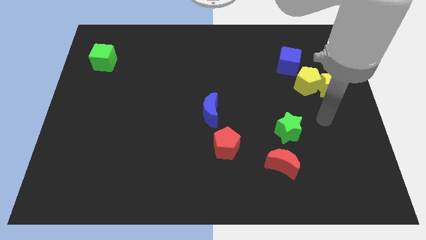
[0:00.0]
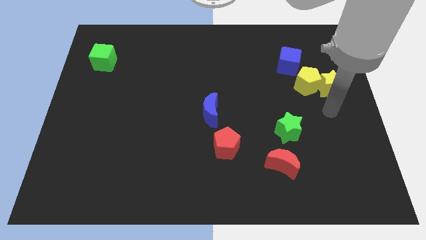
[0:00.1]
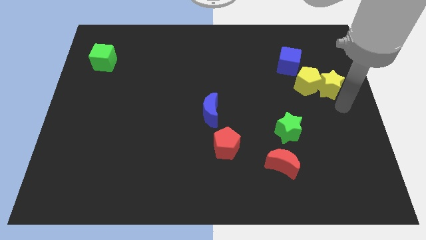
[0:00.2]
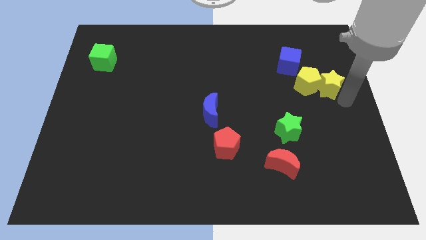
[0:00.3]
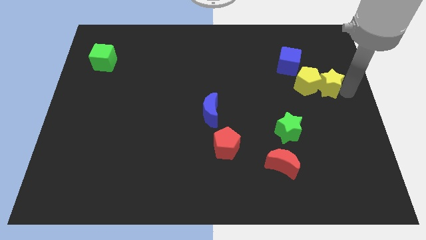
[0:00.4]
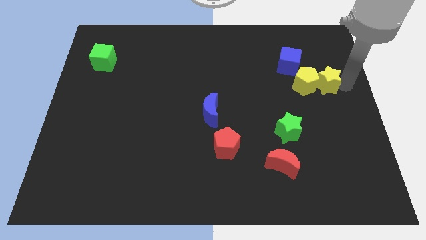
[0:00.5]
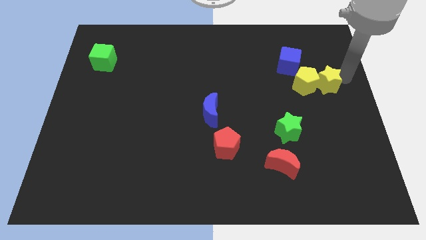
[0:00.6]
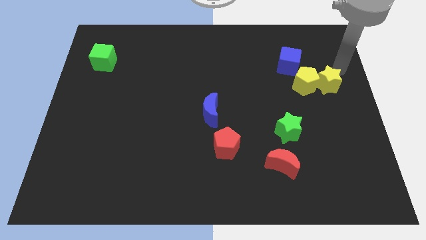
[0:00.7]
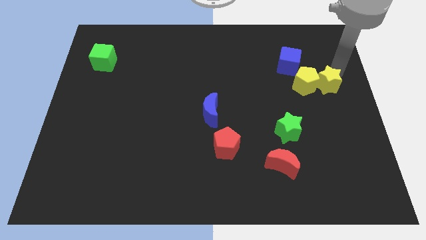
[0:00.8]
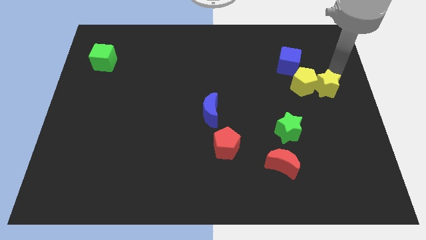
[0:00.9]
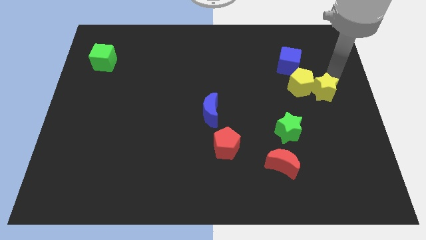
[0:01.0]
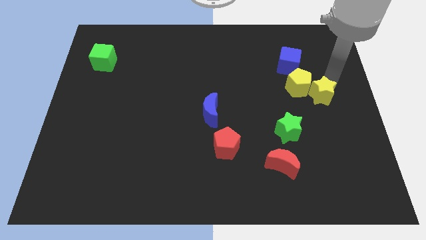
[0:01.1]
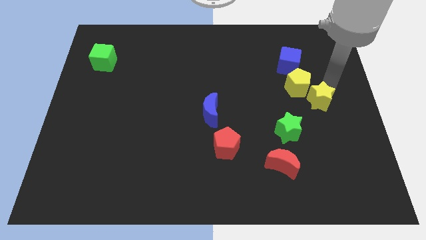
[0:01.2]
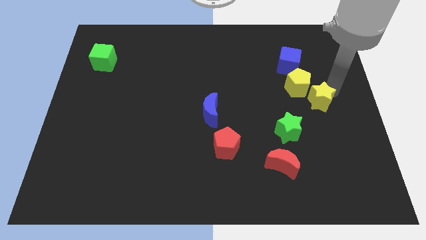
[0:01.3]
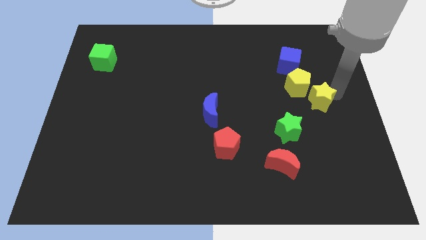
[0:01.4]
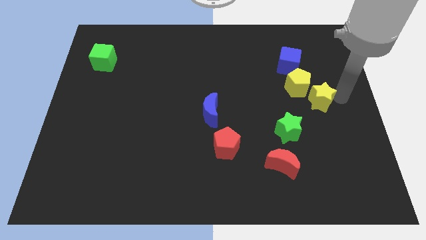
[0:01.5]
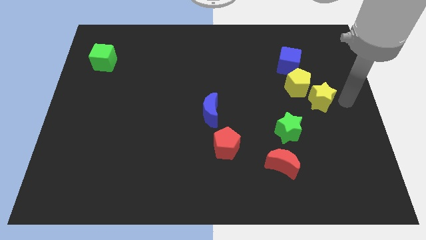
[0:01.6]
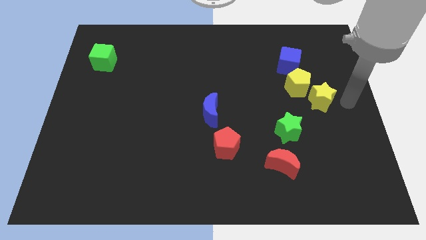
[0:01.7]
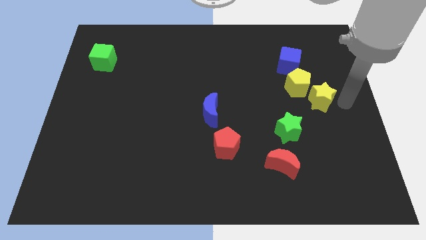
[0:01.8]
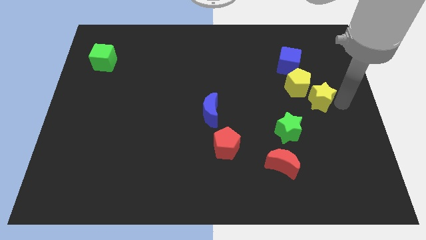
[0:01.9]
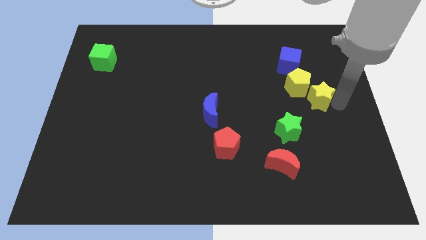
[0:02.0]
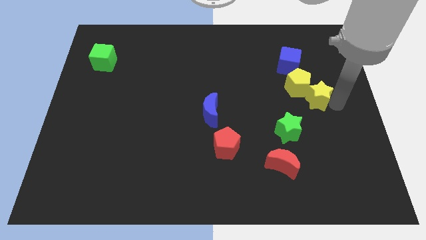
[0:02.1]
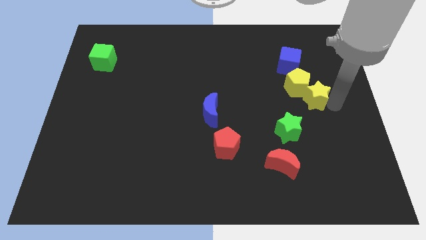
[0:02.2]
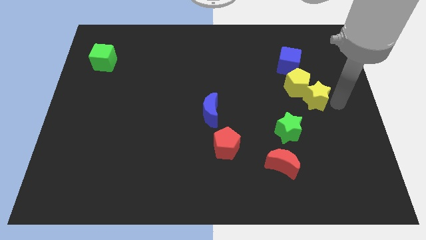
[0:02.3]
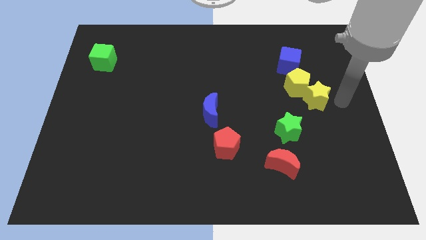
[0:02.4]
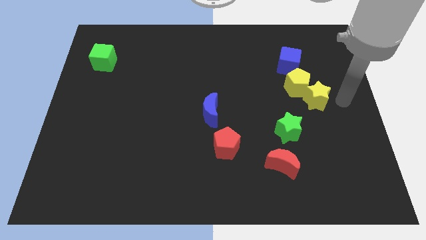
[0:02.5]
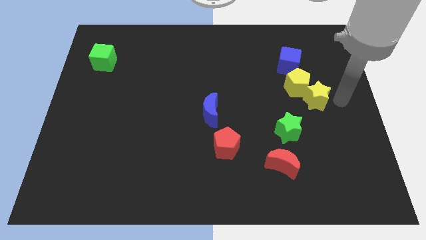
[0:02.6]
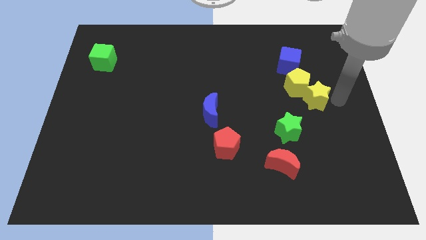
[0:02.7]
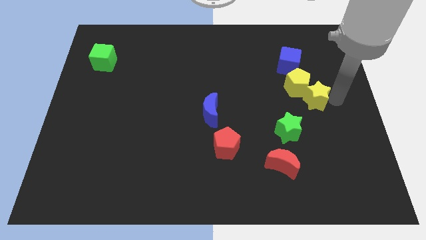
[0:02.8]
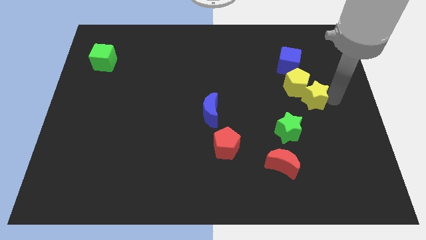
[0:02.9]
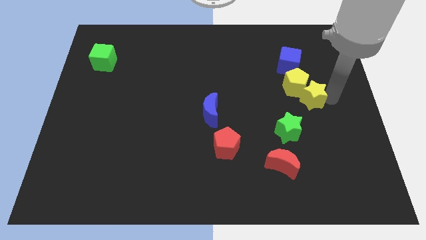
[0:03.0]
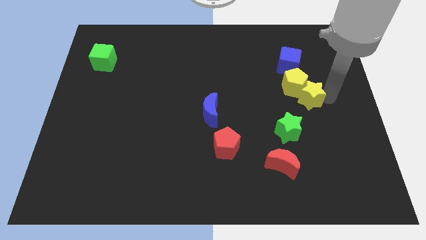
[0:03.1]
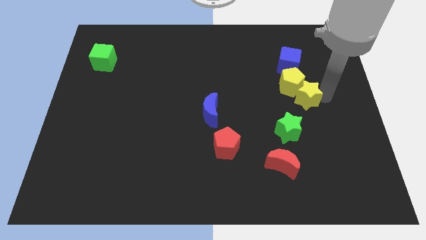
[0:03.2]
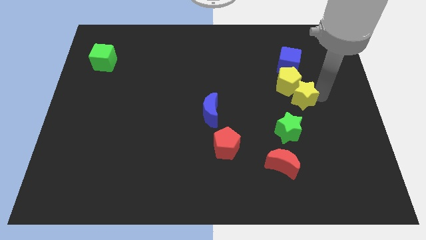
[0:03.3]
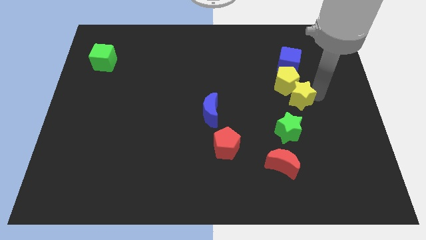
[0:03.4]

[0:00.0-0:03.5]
push the yellow star to the left somewhat

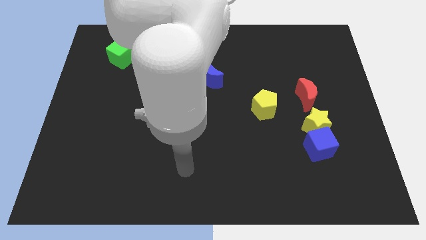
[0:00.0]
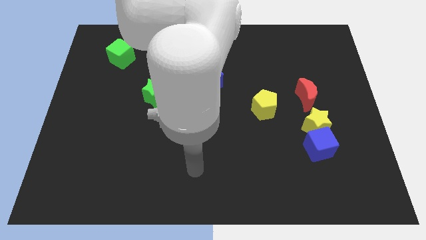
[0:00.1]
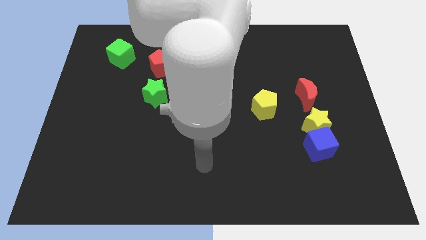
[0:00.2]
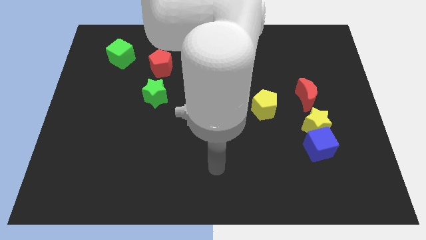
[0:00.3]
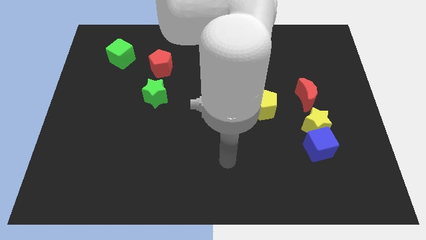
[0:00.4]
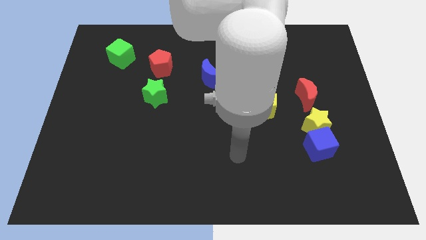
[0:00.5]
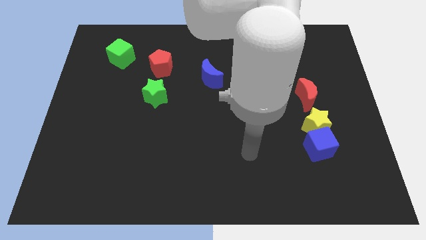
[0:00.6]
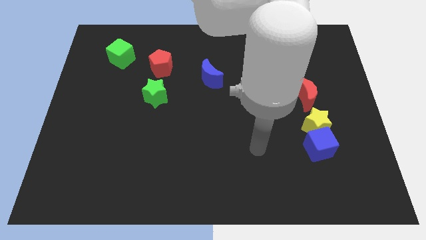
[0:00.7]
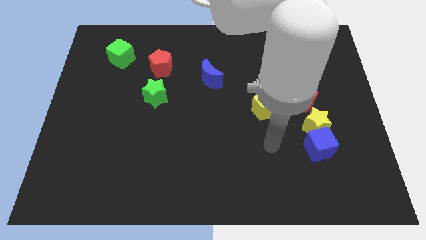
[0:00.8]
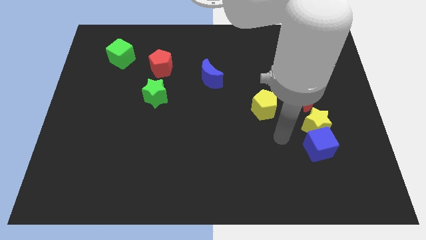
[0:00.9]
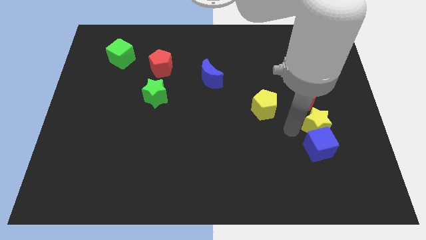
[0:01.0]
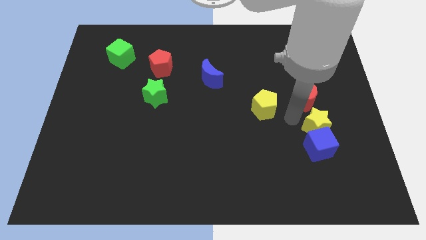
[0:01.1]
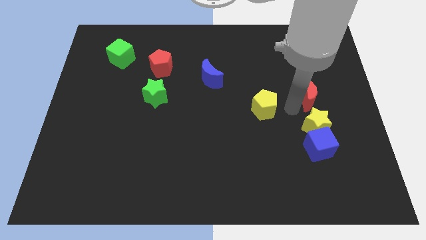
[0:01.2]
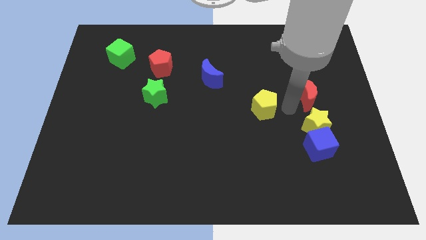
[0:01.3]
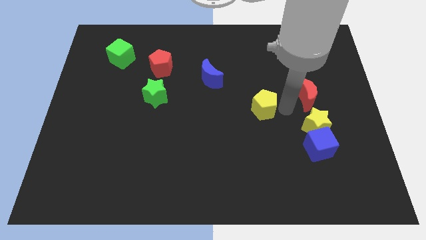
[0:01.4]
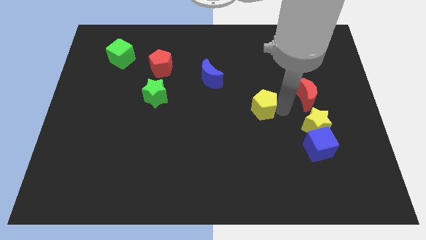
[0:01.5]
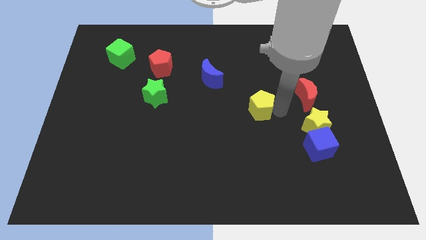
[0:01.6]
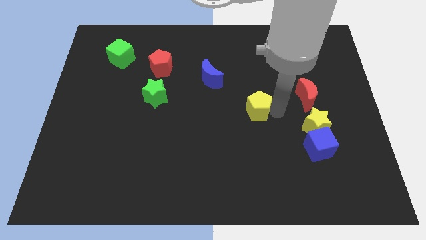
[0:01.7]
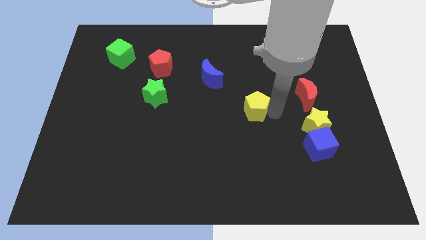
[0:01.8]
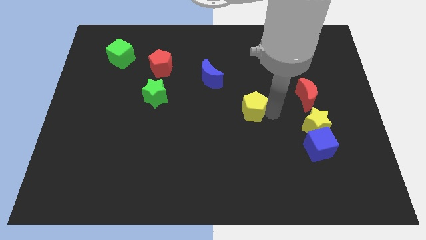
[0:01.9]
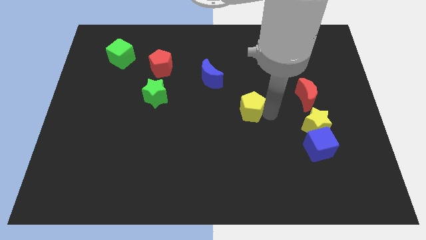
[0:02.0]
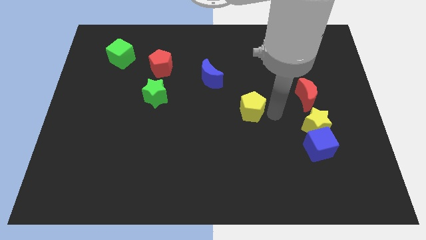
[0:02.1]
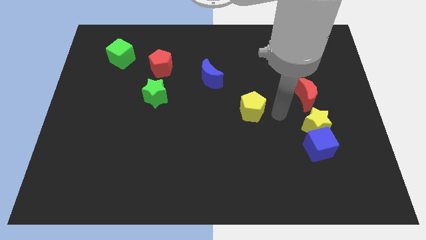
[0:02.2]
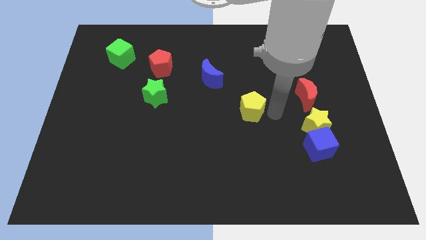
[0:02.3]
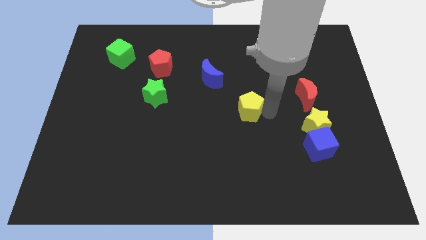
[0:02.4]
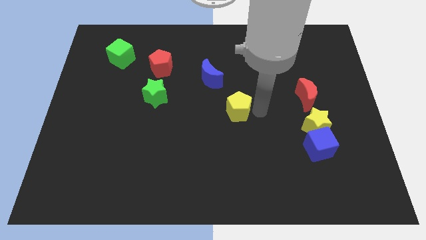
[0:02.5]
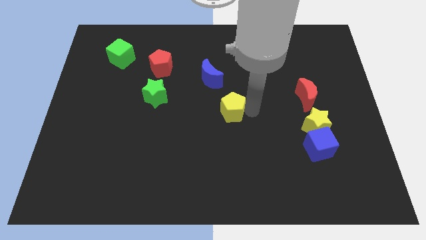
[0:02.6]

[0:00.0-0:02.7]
move the yellow pentagon to the left somewhat

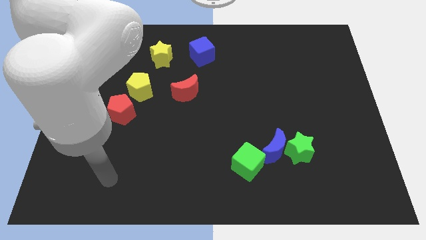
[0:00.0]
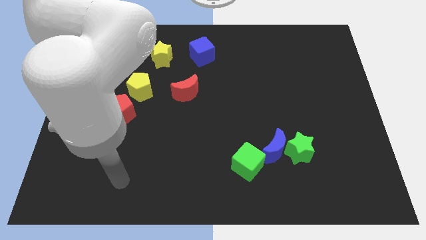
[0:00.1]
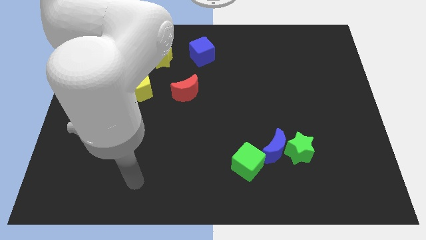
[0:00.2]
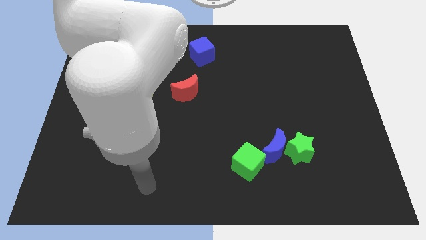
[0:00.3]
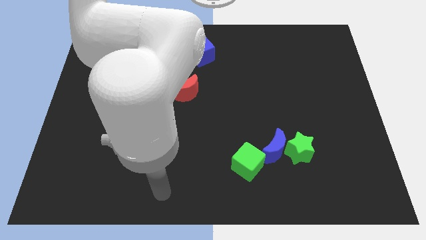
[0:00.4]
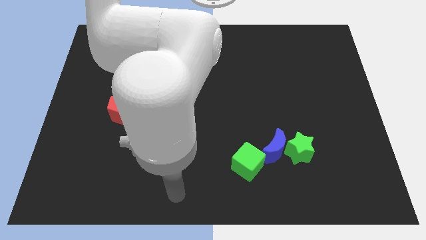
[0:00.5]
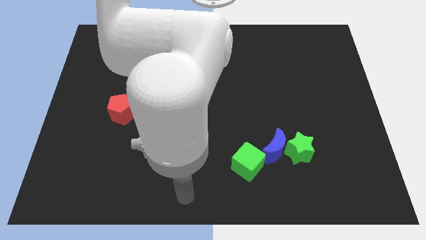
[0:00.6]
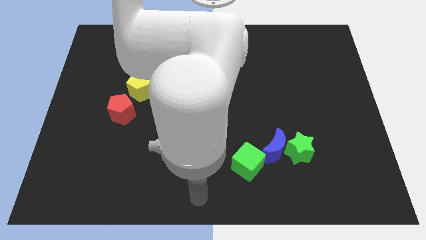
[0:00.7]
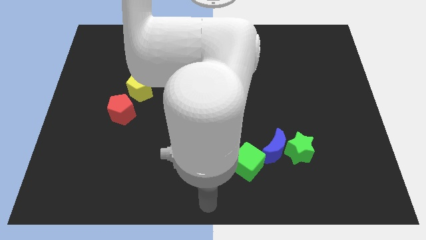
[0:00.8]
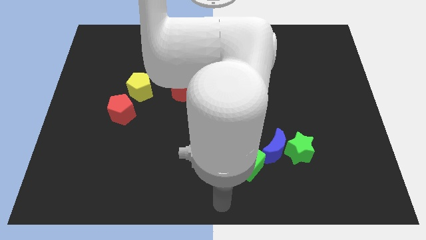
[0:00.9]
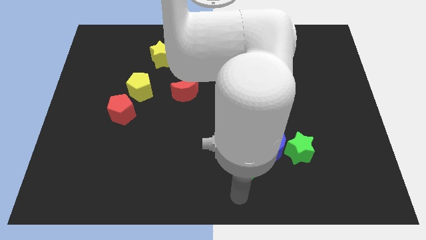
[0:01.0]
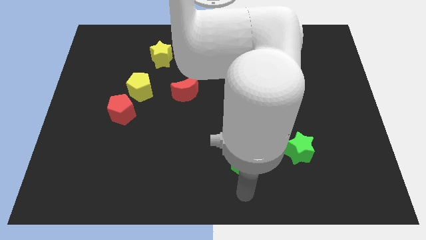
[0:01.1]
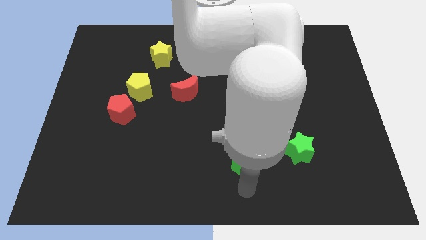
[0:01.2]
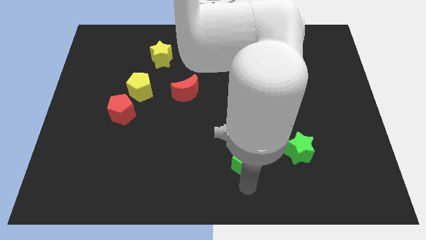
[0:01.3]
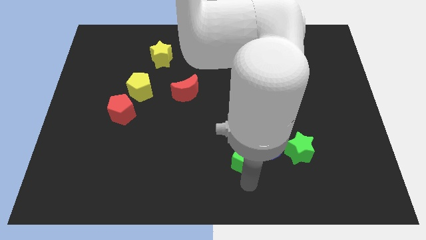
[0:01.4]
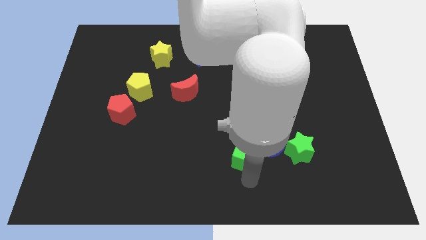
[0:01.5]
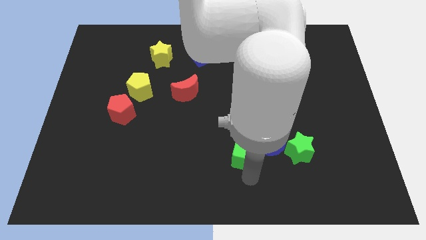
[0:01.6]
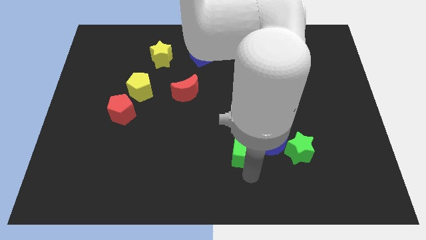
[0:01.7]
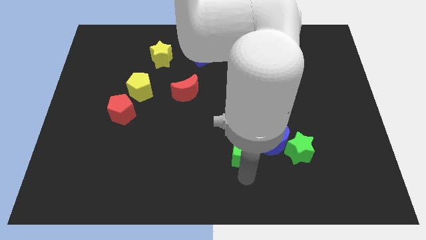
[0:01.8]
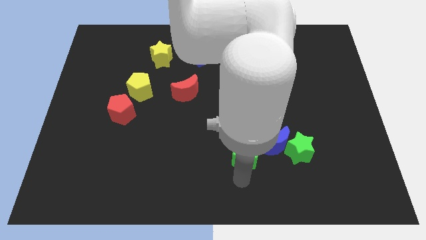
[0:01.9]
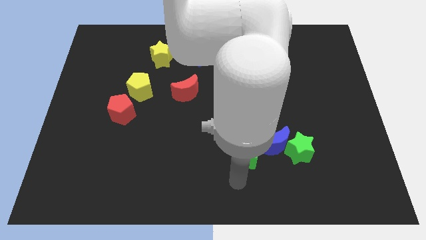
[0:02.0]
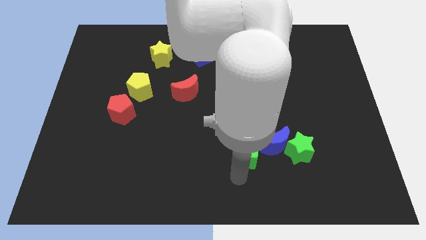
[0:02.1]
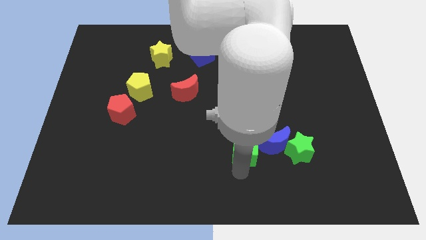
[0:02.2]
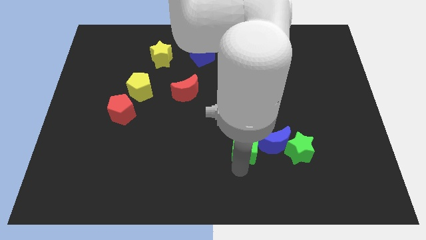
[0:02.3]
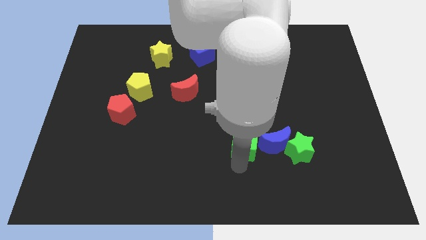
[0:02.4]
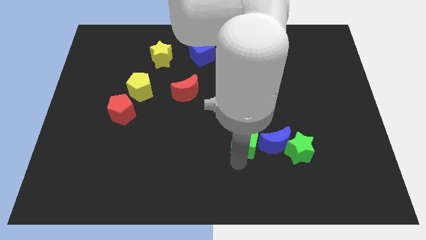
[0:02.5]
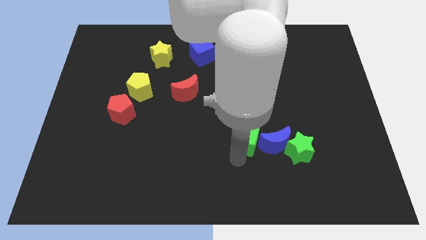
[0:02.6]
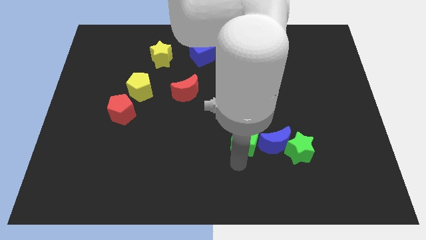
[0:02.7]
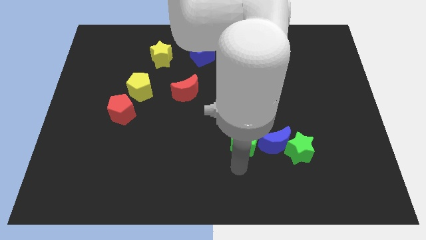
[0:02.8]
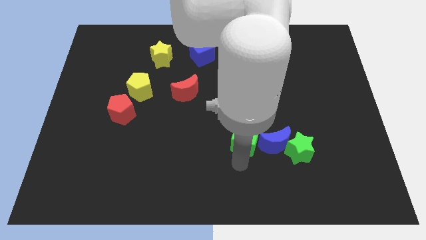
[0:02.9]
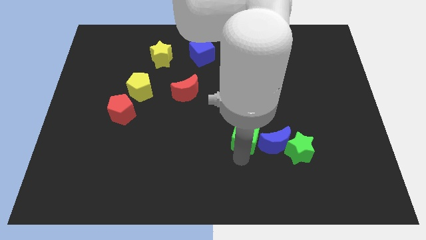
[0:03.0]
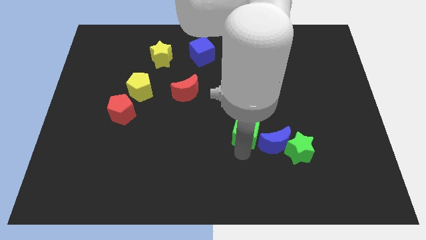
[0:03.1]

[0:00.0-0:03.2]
slide the green cube upwards slightly
